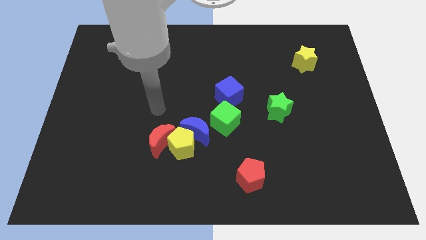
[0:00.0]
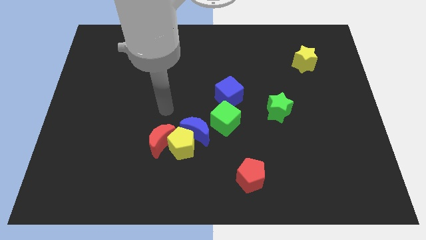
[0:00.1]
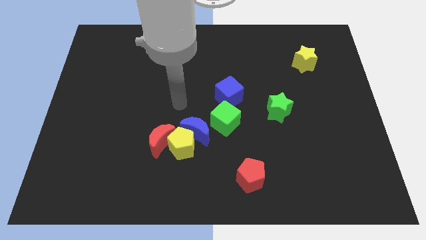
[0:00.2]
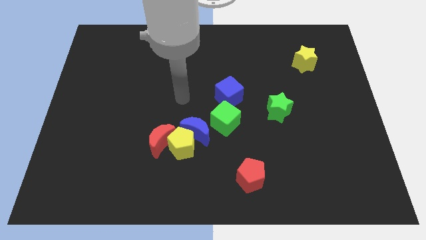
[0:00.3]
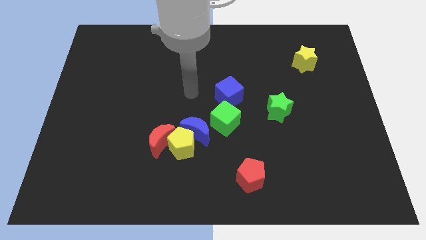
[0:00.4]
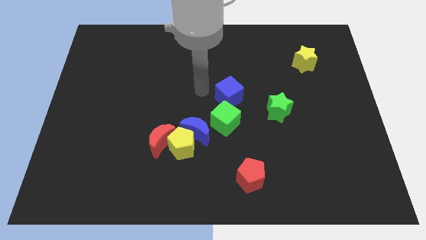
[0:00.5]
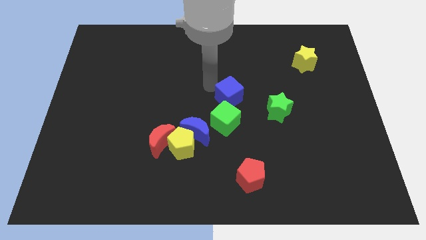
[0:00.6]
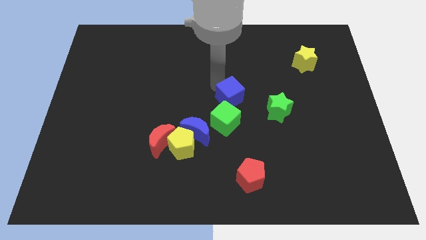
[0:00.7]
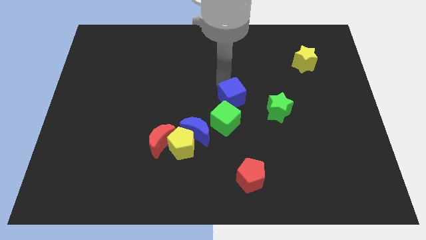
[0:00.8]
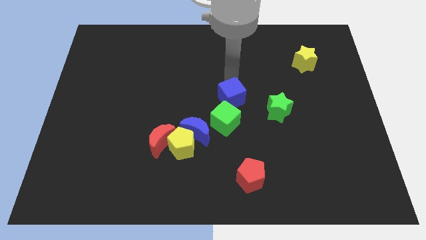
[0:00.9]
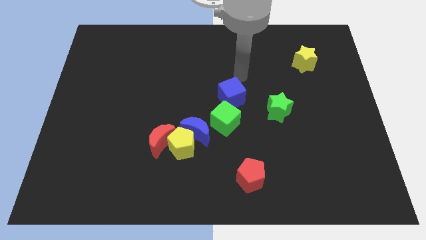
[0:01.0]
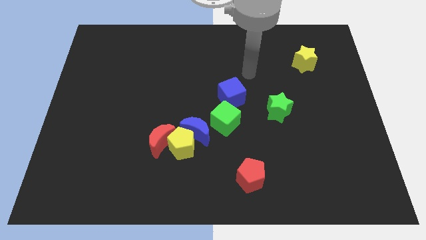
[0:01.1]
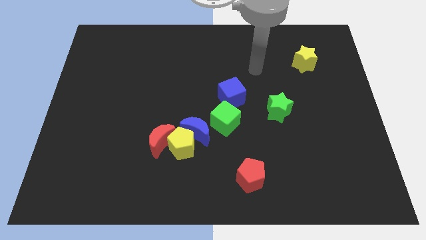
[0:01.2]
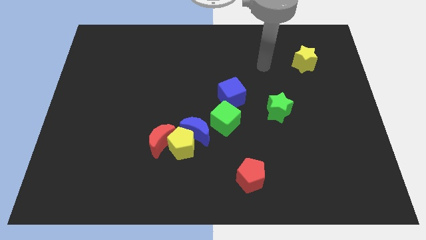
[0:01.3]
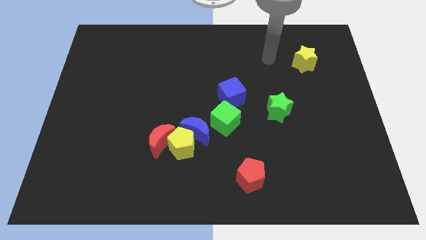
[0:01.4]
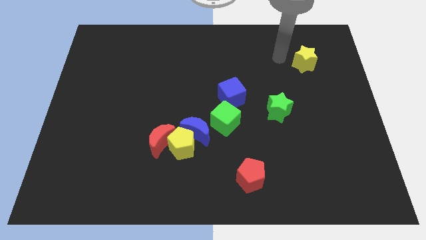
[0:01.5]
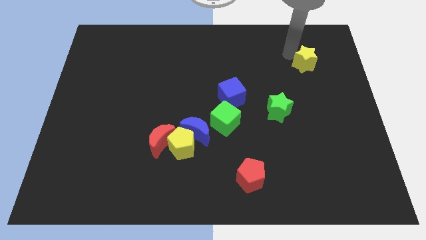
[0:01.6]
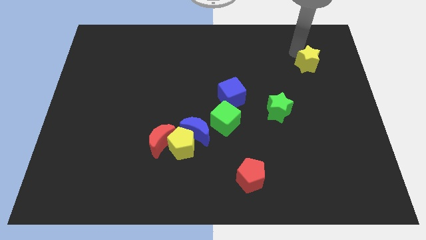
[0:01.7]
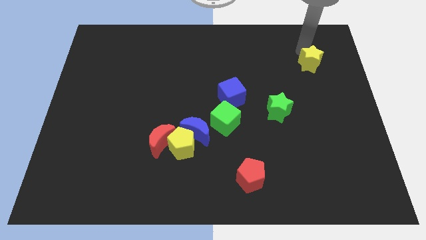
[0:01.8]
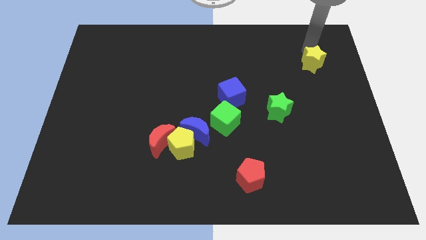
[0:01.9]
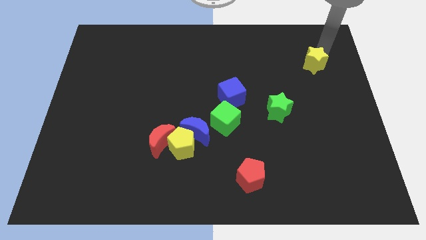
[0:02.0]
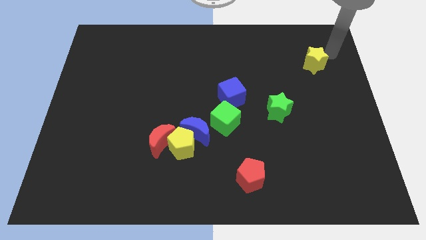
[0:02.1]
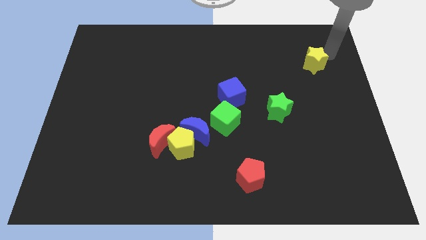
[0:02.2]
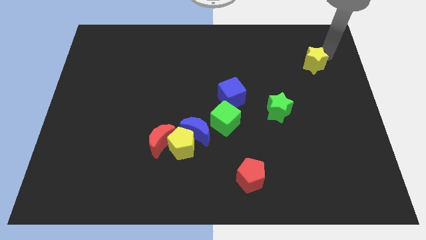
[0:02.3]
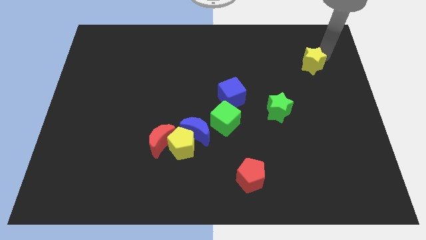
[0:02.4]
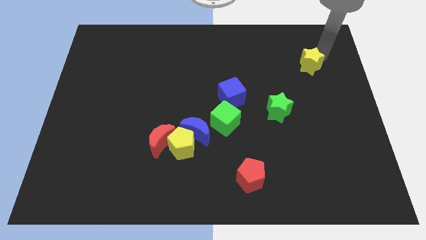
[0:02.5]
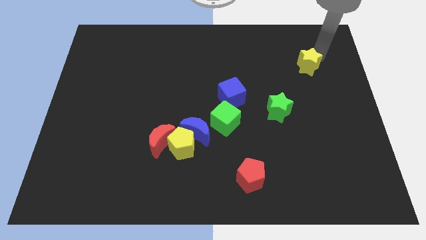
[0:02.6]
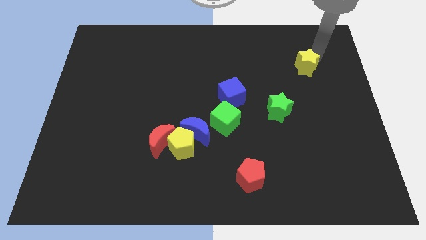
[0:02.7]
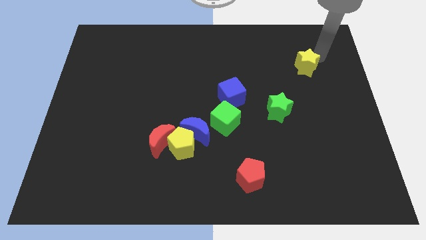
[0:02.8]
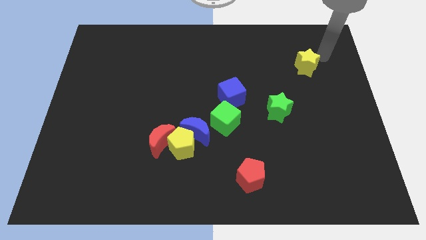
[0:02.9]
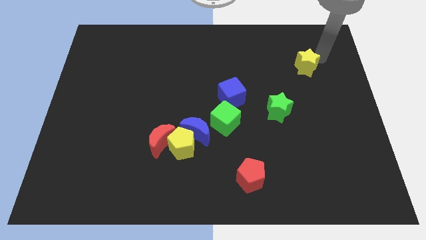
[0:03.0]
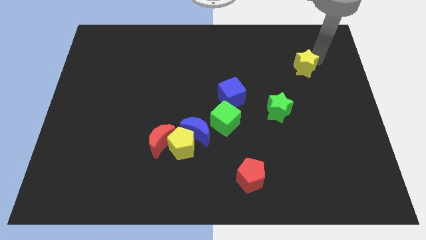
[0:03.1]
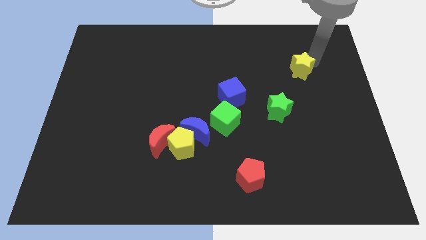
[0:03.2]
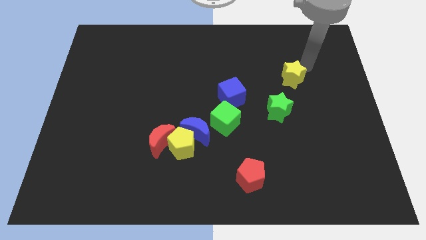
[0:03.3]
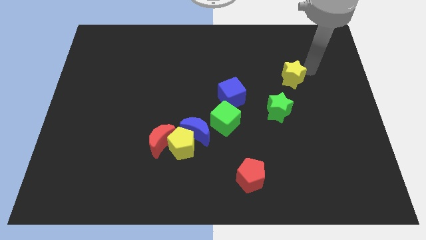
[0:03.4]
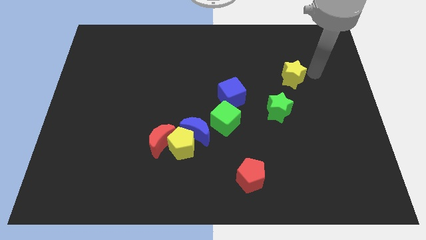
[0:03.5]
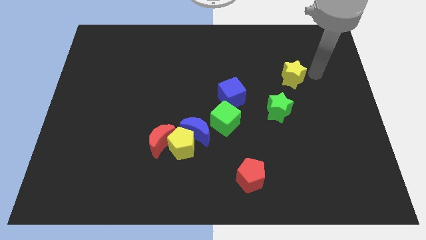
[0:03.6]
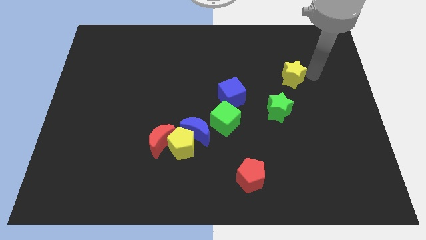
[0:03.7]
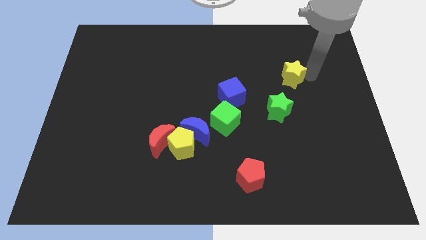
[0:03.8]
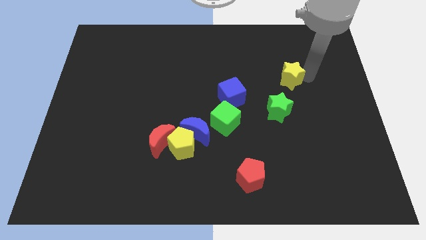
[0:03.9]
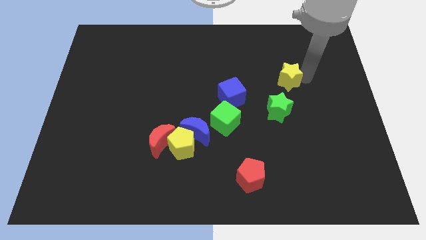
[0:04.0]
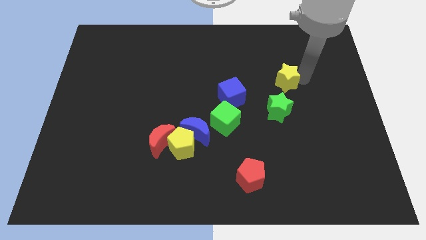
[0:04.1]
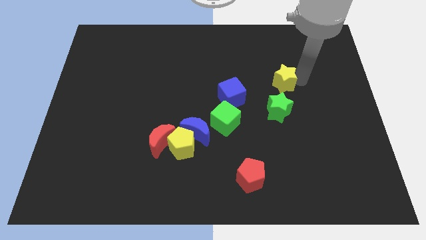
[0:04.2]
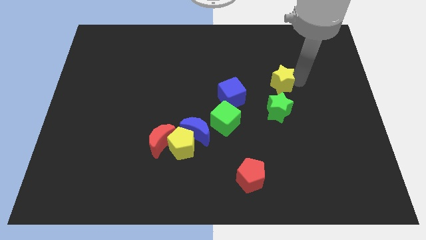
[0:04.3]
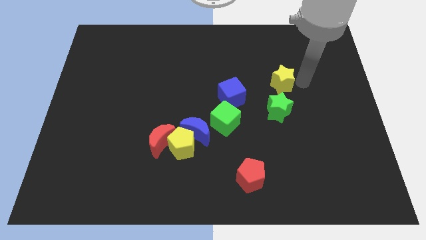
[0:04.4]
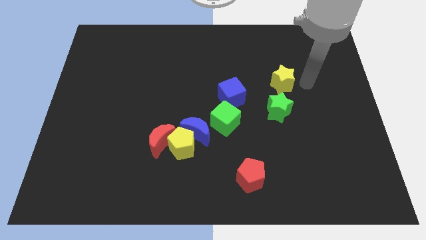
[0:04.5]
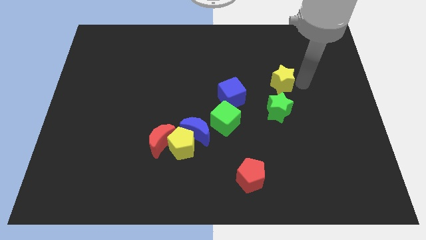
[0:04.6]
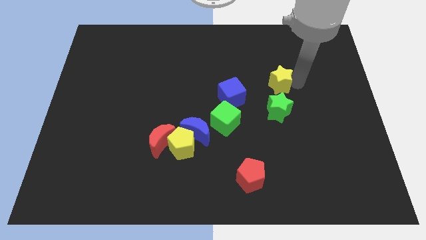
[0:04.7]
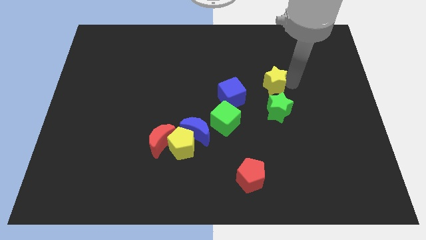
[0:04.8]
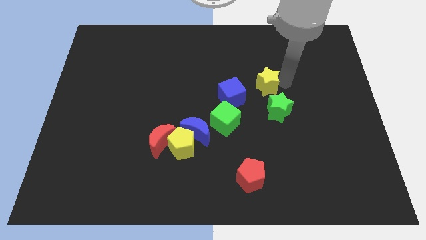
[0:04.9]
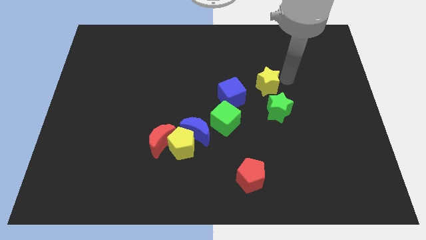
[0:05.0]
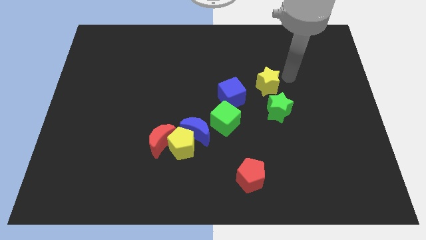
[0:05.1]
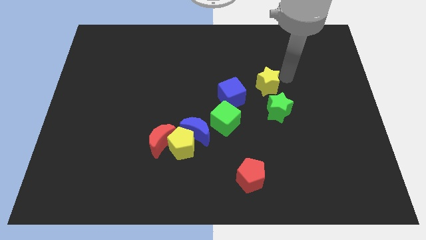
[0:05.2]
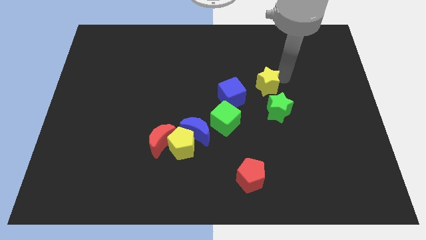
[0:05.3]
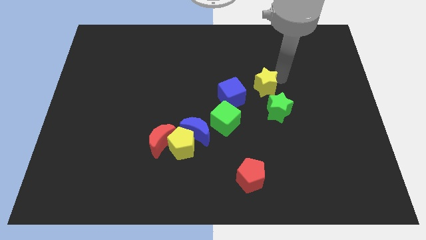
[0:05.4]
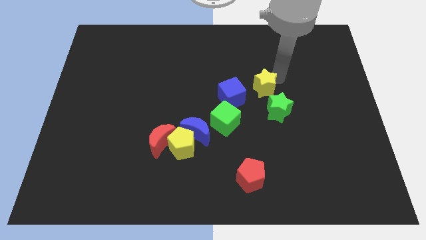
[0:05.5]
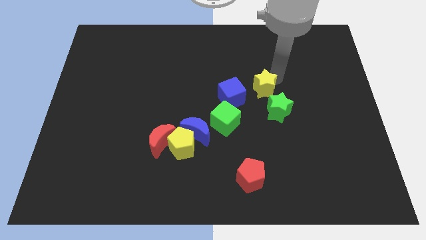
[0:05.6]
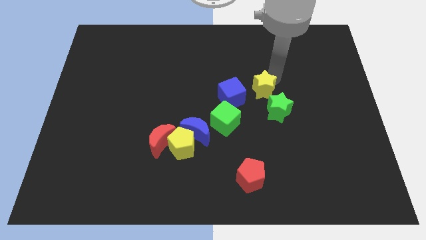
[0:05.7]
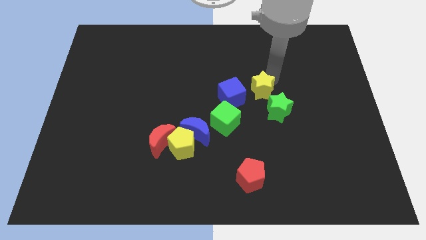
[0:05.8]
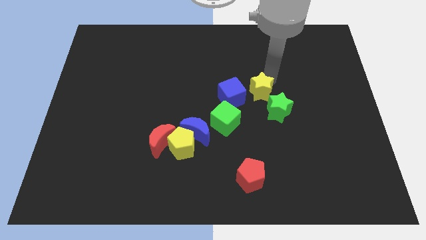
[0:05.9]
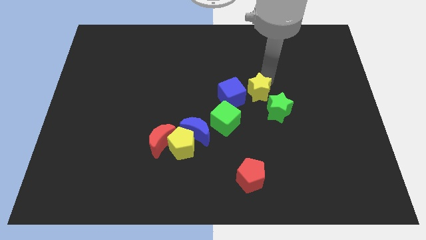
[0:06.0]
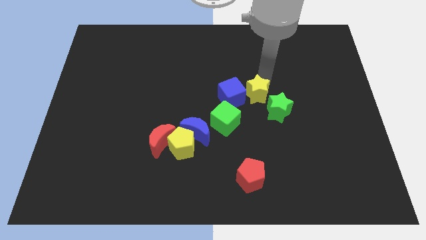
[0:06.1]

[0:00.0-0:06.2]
put the yellow star towards the blue cube

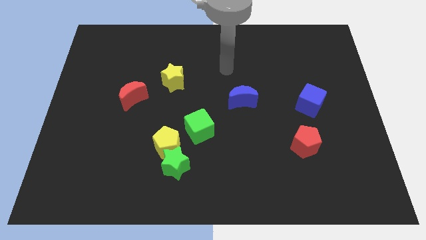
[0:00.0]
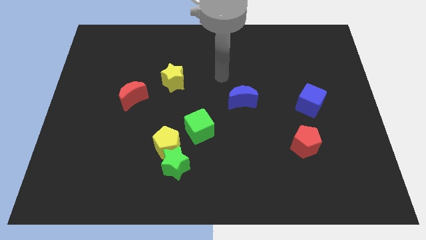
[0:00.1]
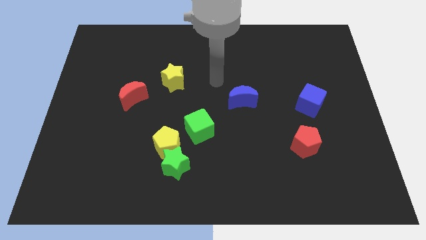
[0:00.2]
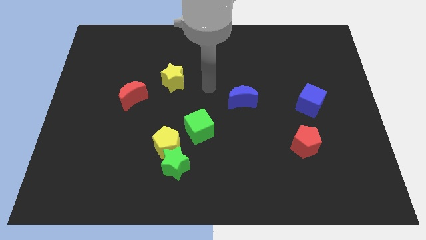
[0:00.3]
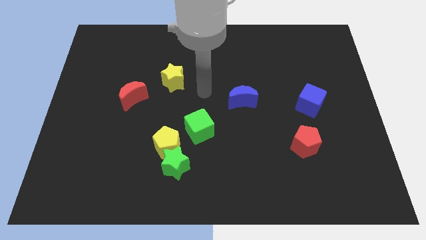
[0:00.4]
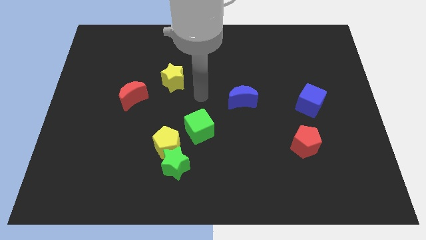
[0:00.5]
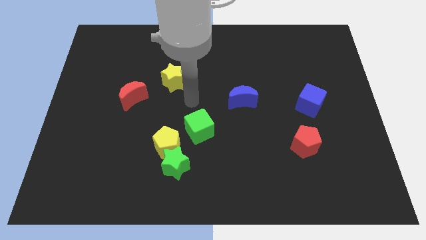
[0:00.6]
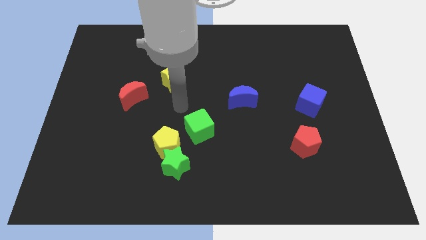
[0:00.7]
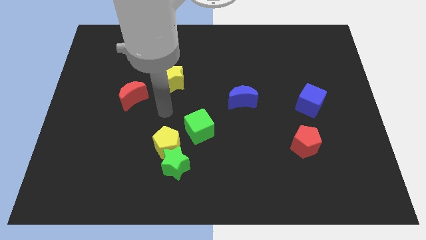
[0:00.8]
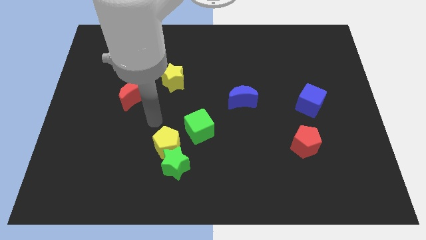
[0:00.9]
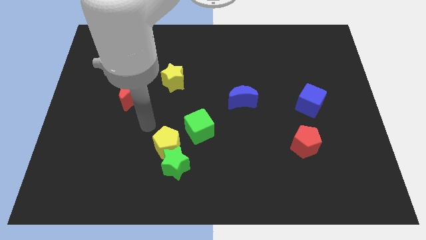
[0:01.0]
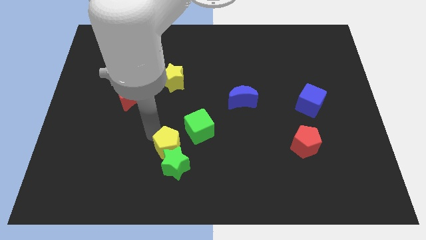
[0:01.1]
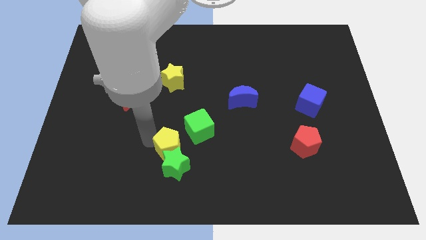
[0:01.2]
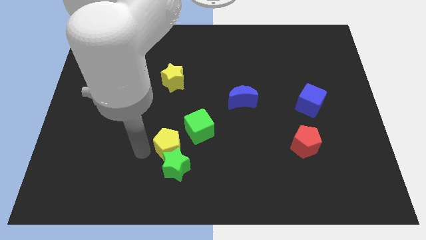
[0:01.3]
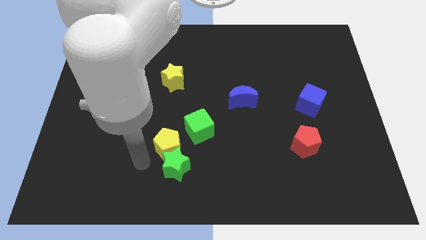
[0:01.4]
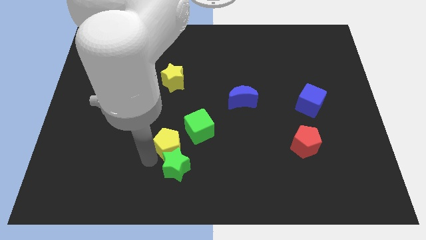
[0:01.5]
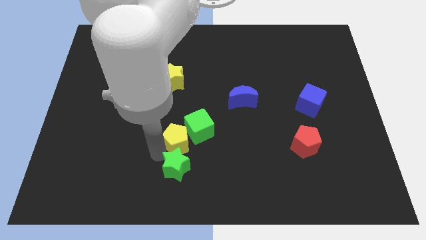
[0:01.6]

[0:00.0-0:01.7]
slide the yellow pentagon towards the green cube

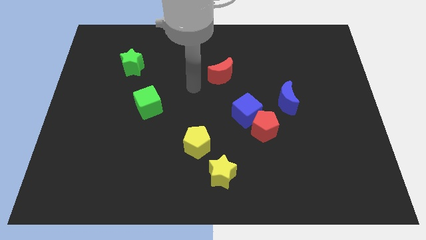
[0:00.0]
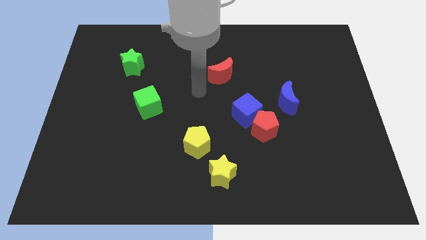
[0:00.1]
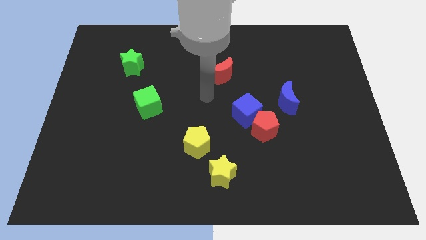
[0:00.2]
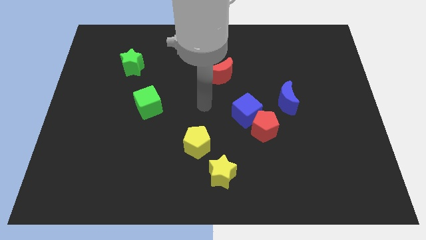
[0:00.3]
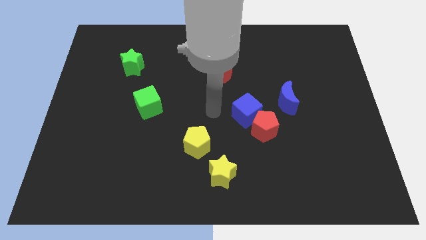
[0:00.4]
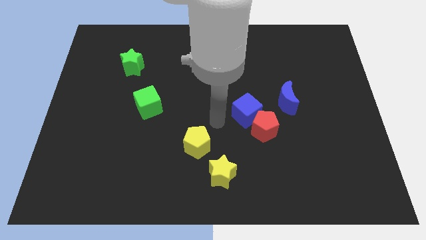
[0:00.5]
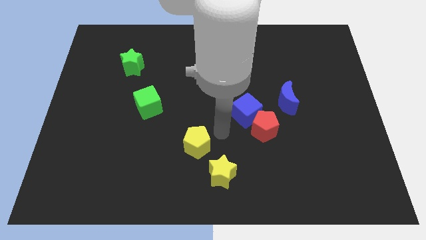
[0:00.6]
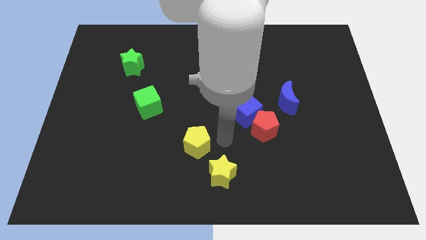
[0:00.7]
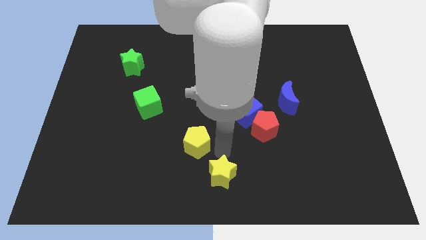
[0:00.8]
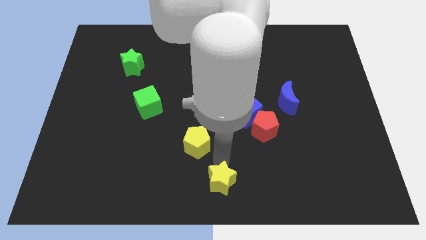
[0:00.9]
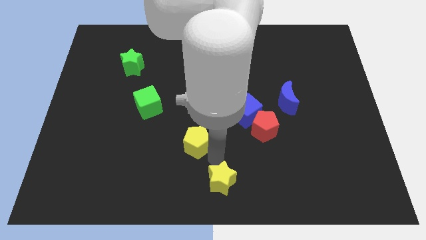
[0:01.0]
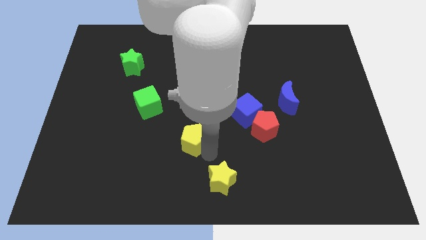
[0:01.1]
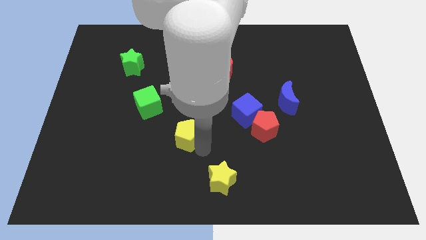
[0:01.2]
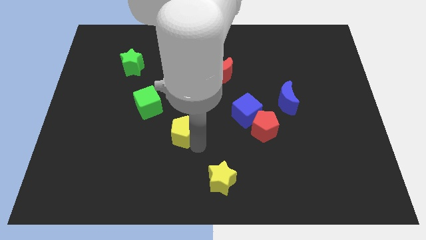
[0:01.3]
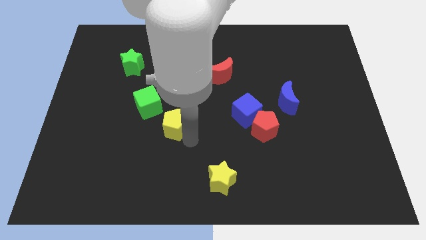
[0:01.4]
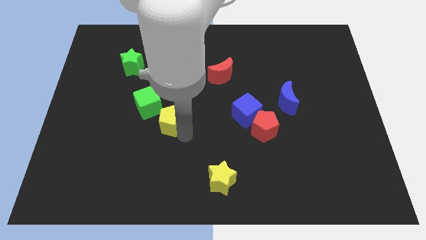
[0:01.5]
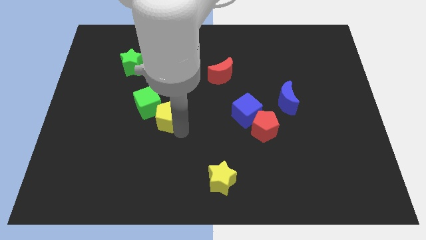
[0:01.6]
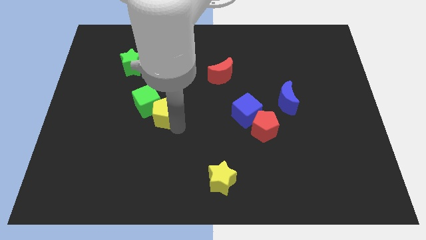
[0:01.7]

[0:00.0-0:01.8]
slide the yellow pentagon close to the green cube
